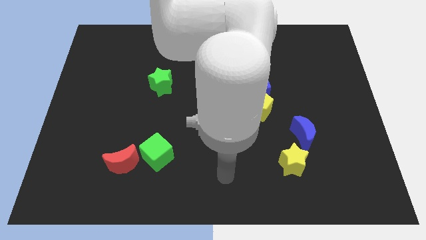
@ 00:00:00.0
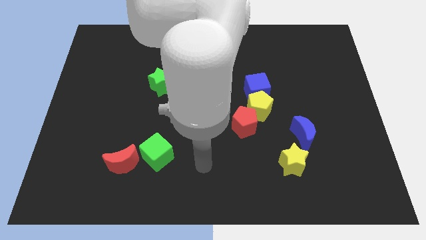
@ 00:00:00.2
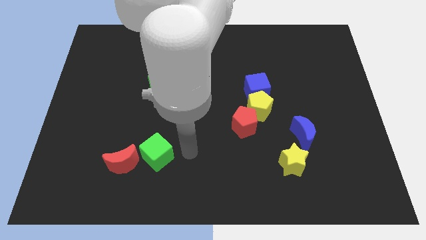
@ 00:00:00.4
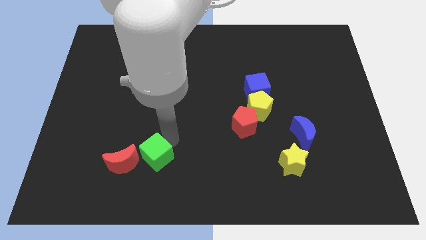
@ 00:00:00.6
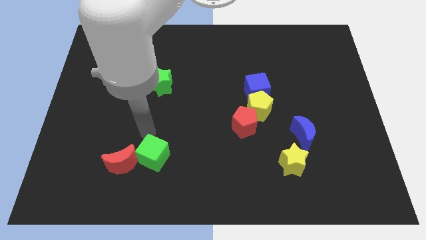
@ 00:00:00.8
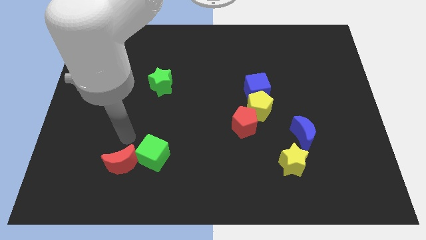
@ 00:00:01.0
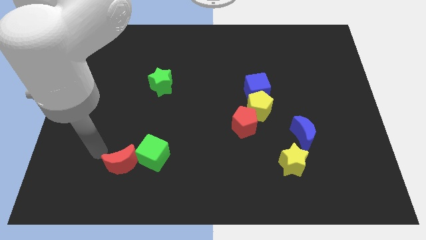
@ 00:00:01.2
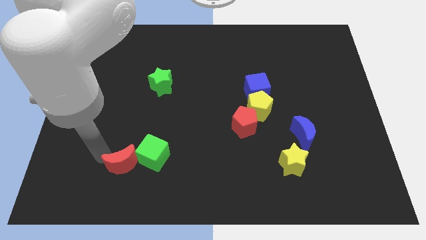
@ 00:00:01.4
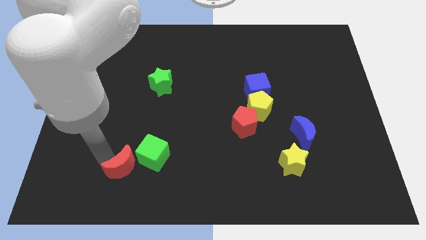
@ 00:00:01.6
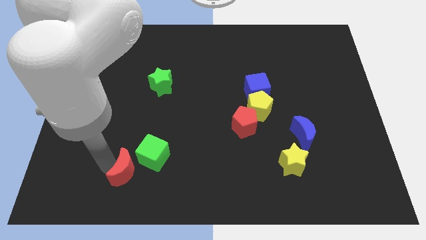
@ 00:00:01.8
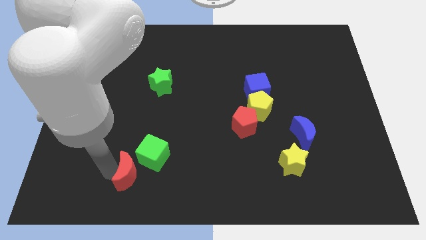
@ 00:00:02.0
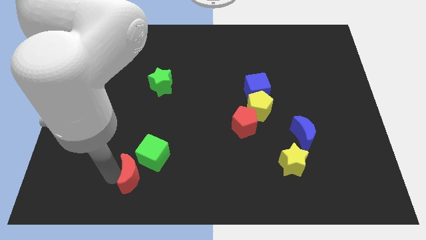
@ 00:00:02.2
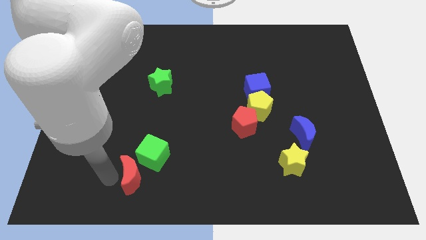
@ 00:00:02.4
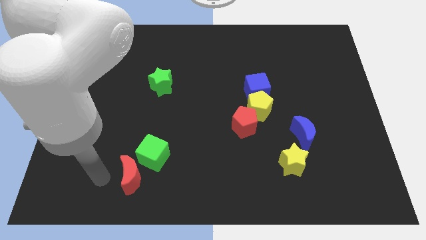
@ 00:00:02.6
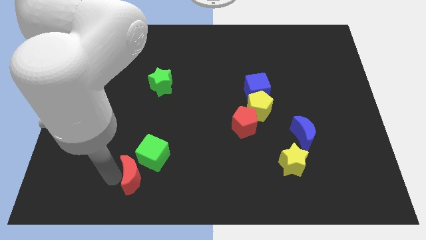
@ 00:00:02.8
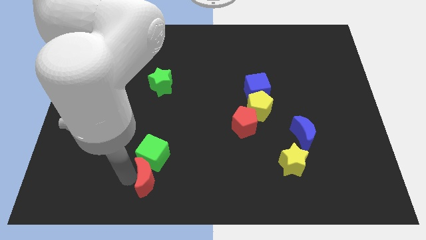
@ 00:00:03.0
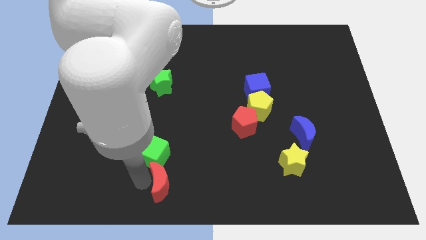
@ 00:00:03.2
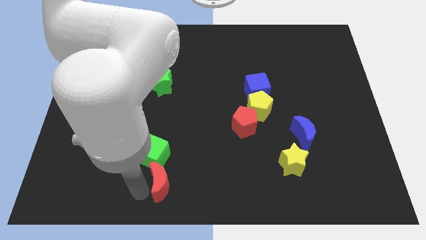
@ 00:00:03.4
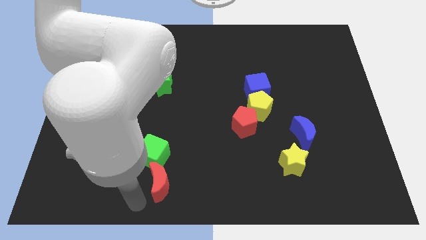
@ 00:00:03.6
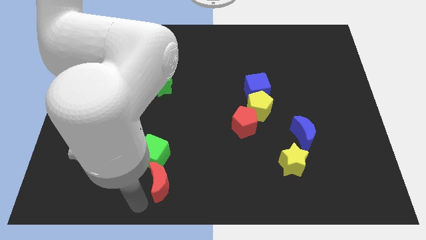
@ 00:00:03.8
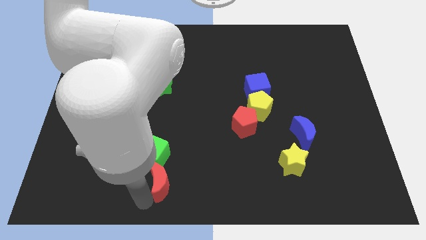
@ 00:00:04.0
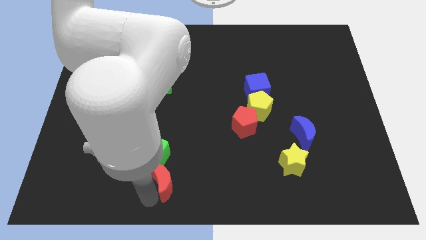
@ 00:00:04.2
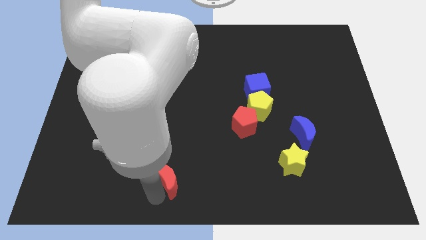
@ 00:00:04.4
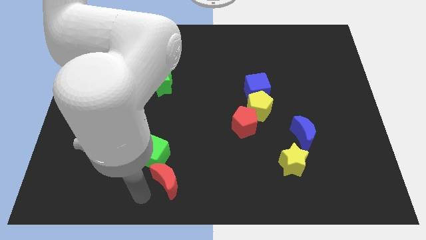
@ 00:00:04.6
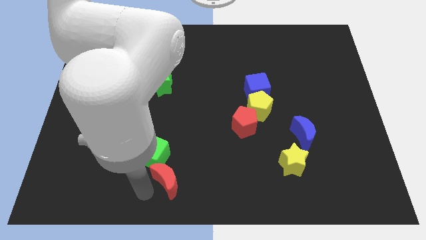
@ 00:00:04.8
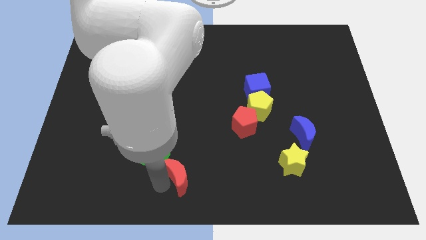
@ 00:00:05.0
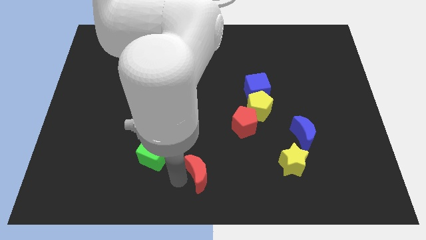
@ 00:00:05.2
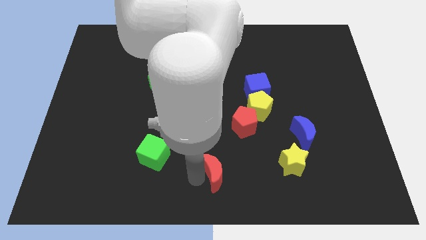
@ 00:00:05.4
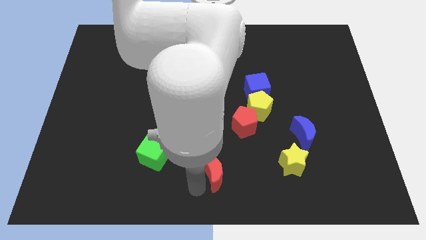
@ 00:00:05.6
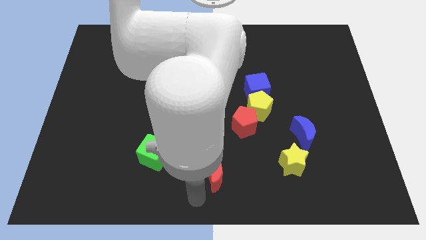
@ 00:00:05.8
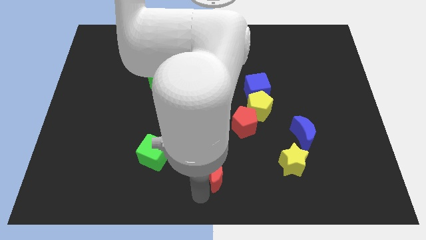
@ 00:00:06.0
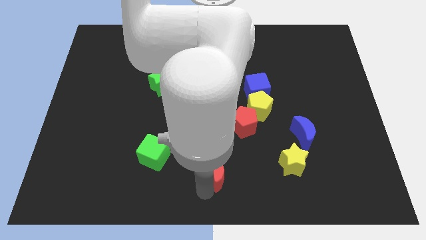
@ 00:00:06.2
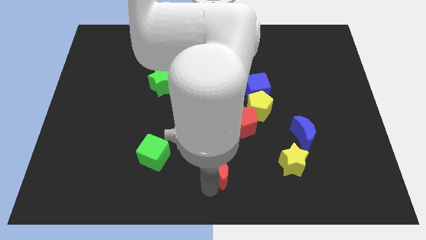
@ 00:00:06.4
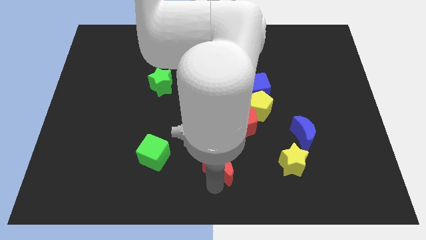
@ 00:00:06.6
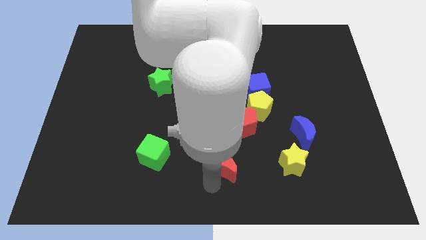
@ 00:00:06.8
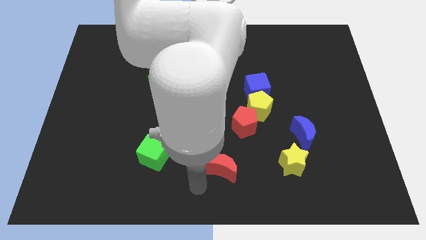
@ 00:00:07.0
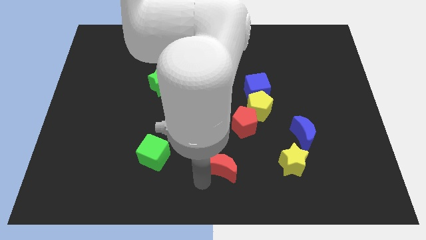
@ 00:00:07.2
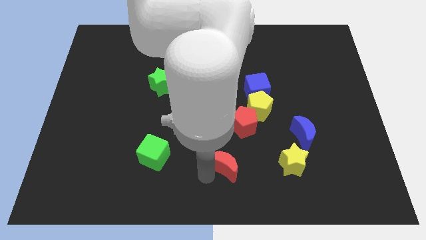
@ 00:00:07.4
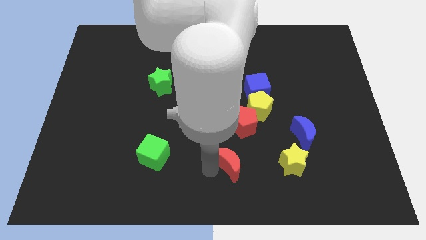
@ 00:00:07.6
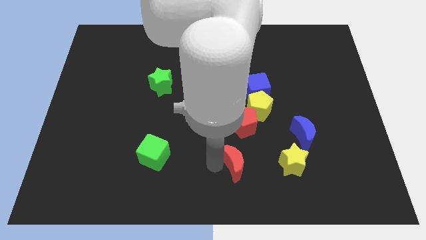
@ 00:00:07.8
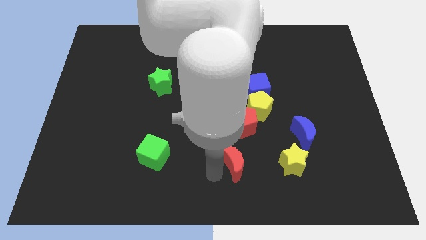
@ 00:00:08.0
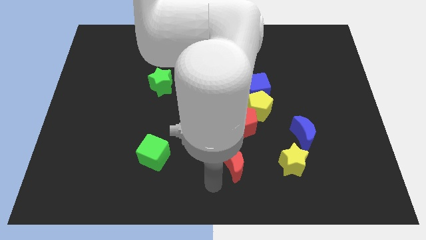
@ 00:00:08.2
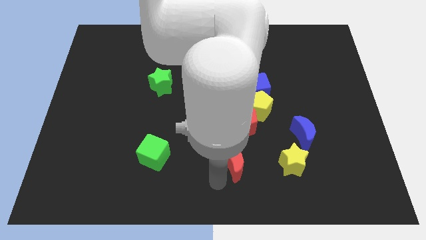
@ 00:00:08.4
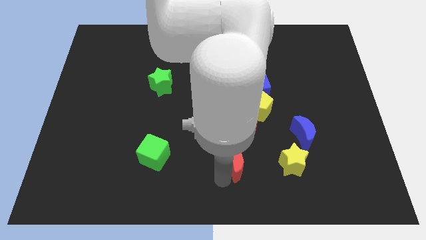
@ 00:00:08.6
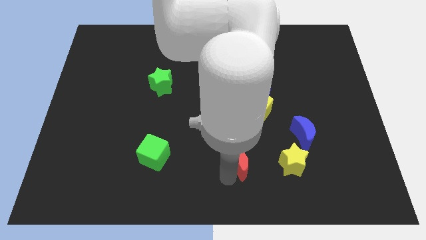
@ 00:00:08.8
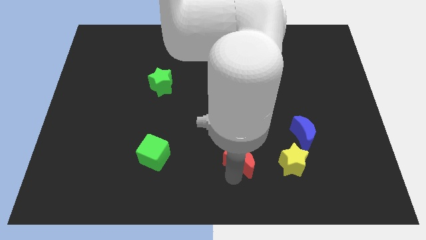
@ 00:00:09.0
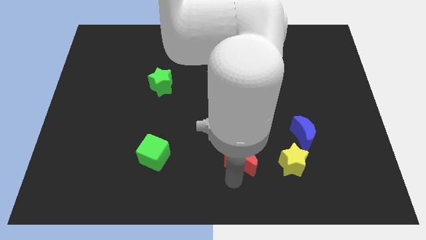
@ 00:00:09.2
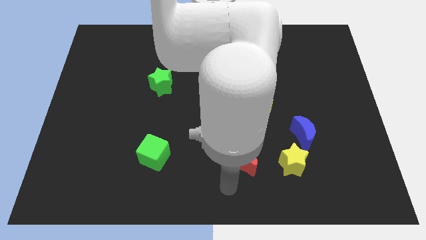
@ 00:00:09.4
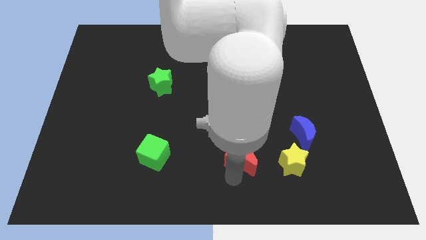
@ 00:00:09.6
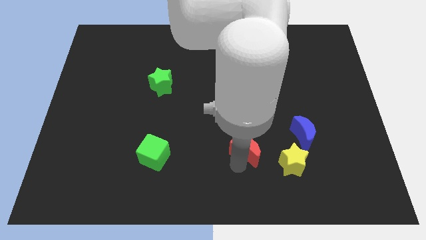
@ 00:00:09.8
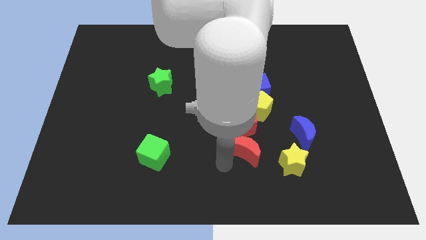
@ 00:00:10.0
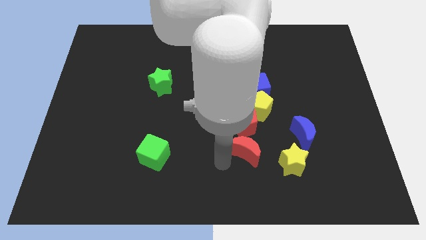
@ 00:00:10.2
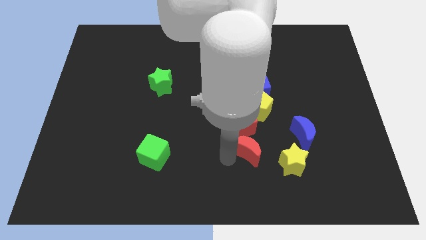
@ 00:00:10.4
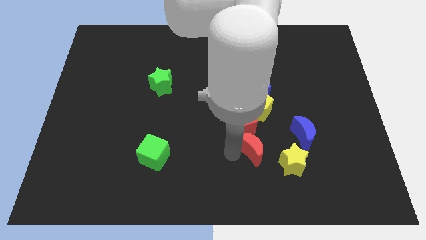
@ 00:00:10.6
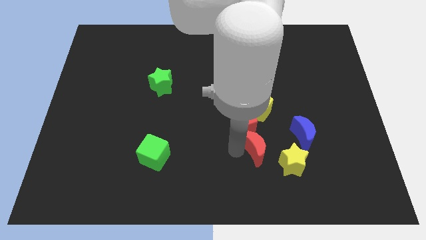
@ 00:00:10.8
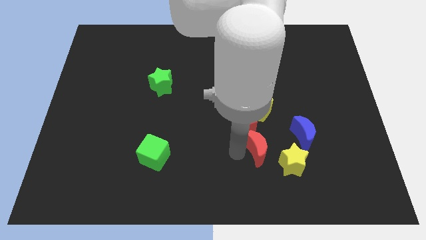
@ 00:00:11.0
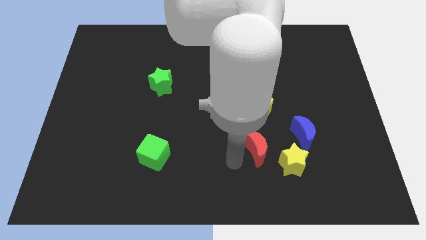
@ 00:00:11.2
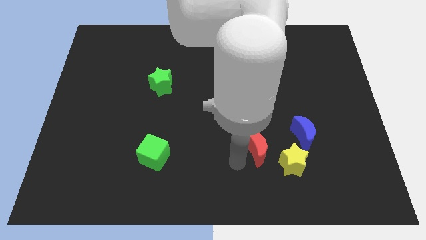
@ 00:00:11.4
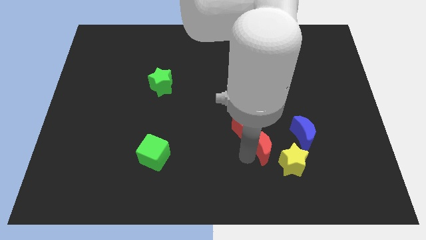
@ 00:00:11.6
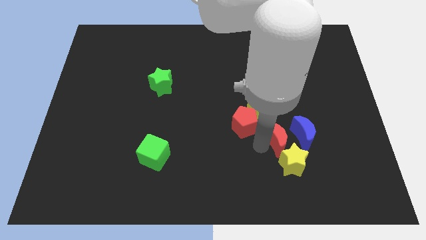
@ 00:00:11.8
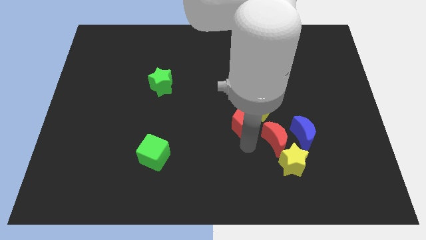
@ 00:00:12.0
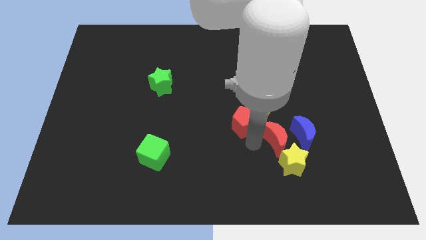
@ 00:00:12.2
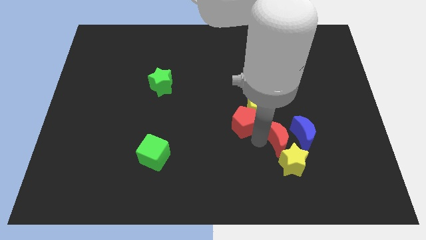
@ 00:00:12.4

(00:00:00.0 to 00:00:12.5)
put the red moon close to the blue moon

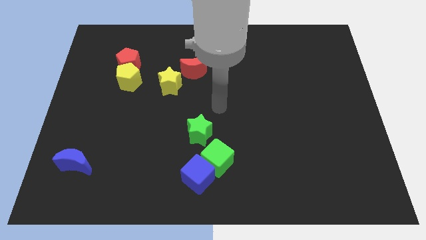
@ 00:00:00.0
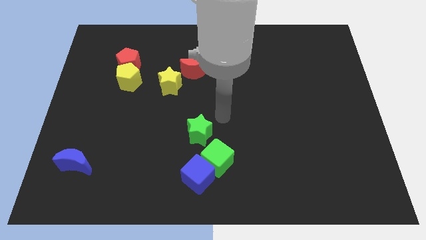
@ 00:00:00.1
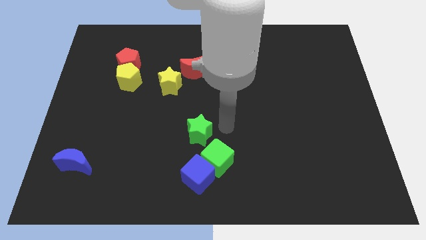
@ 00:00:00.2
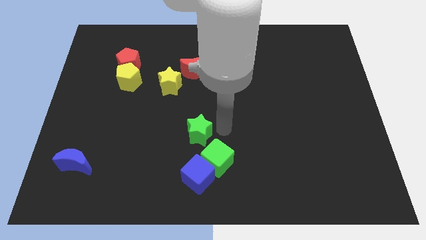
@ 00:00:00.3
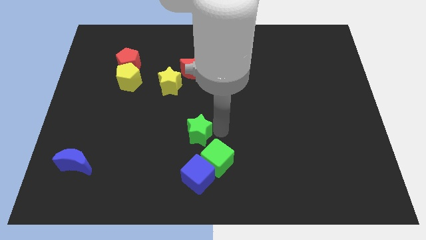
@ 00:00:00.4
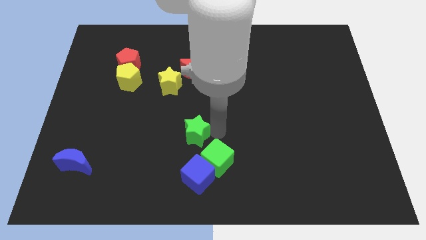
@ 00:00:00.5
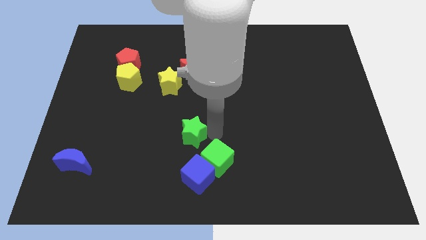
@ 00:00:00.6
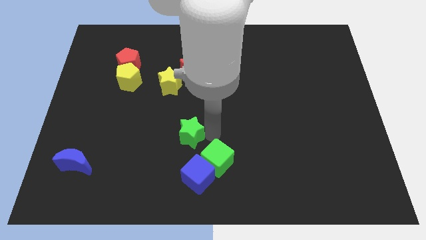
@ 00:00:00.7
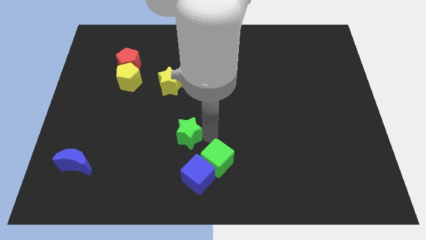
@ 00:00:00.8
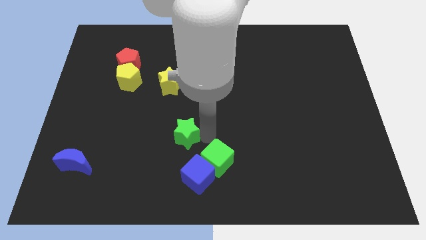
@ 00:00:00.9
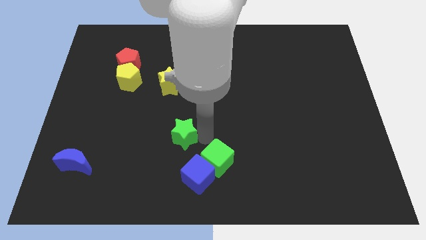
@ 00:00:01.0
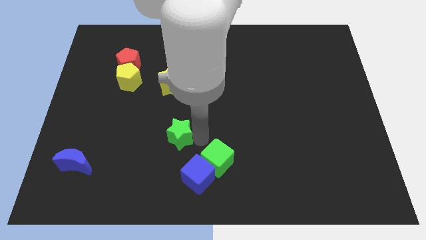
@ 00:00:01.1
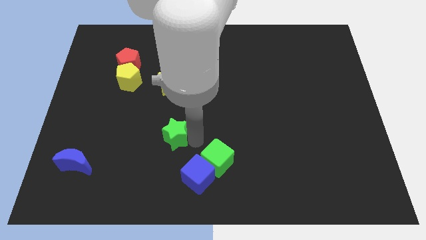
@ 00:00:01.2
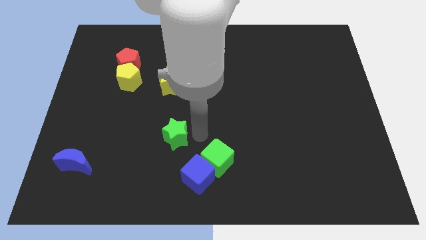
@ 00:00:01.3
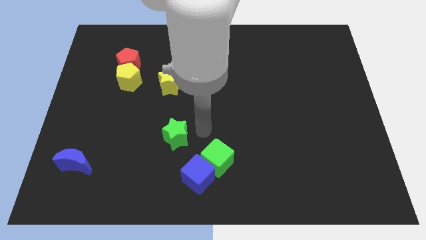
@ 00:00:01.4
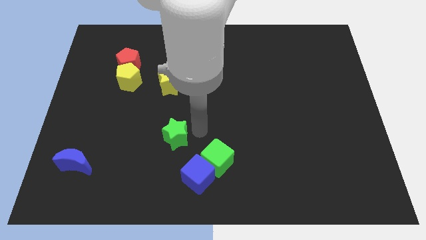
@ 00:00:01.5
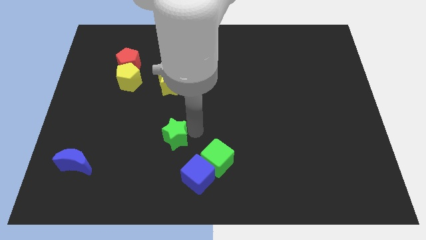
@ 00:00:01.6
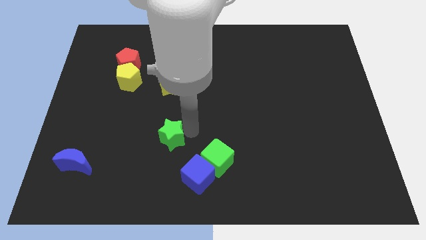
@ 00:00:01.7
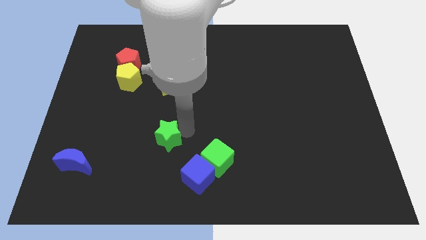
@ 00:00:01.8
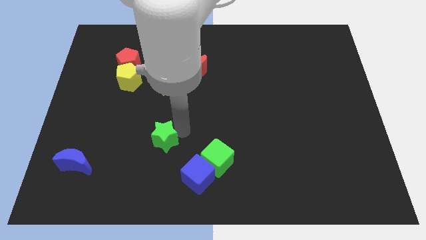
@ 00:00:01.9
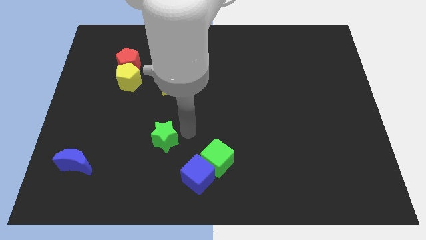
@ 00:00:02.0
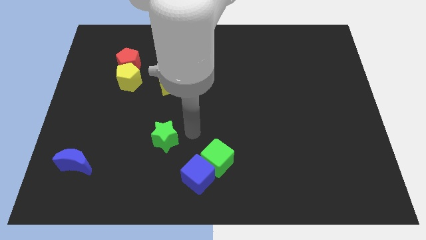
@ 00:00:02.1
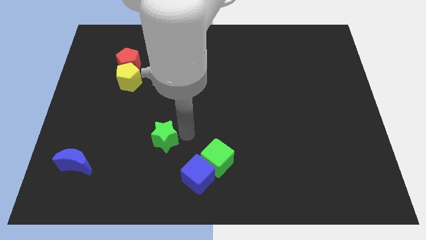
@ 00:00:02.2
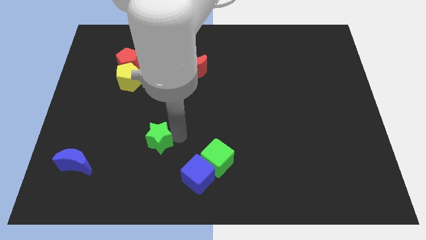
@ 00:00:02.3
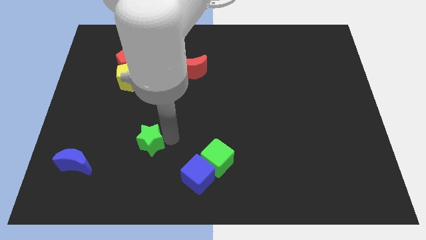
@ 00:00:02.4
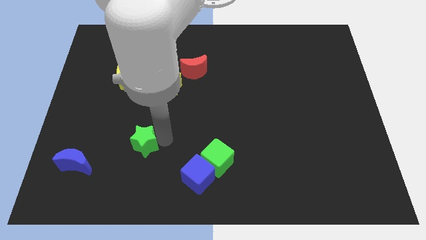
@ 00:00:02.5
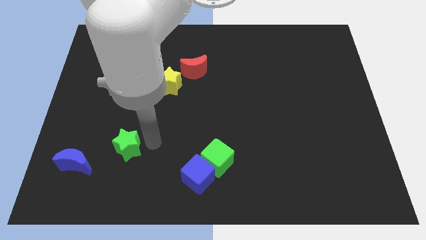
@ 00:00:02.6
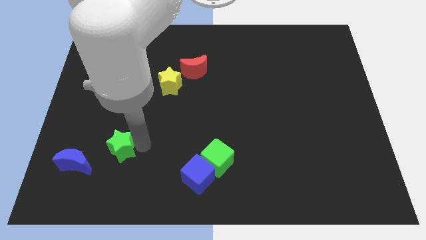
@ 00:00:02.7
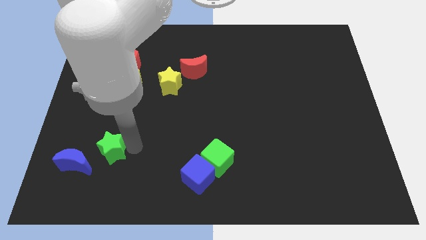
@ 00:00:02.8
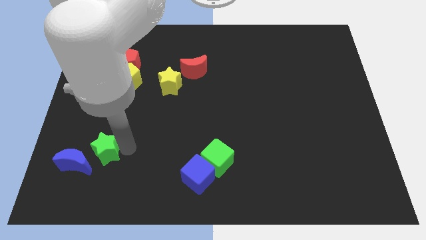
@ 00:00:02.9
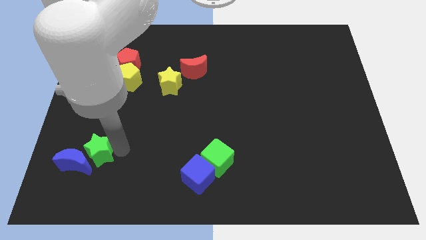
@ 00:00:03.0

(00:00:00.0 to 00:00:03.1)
push the green star next to the blue moon
